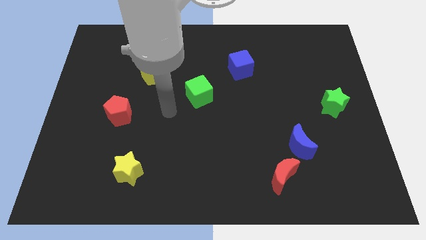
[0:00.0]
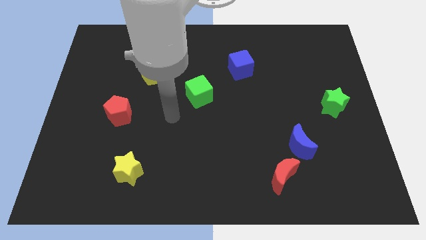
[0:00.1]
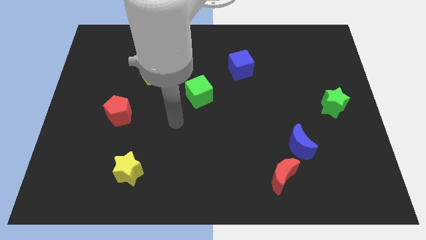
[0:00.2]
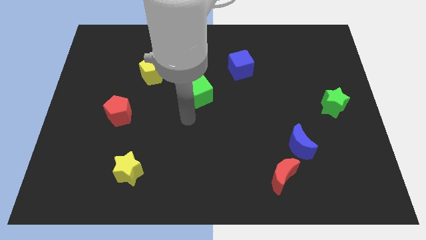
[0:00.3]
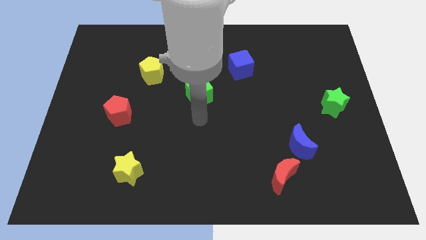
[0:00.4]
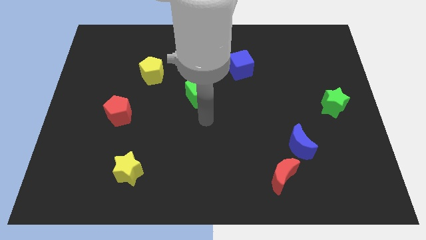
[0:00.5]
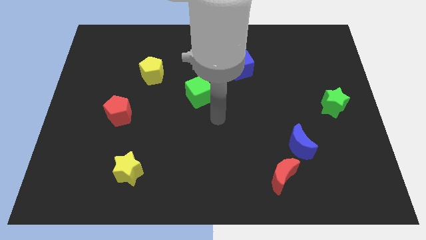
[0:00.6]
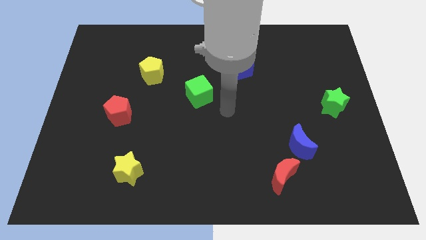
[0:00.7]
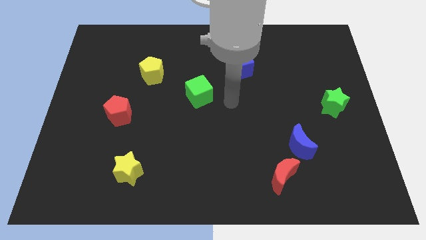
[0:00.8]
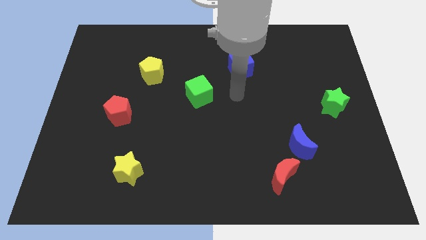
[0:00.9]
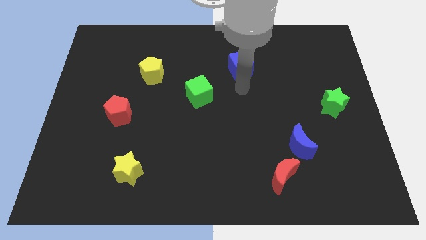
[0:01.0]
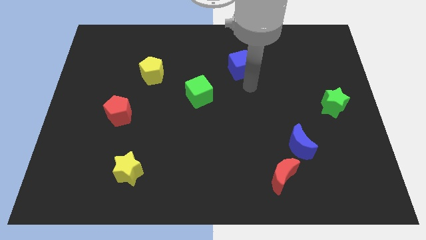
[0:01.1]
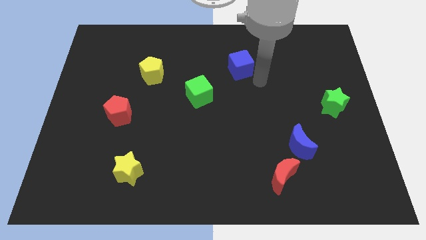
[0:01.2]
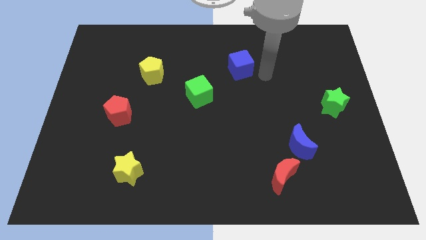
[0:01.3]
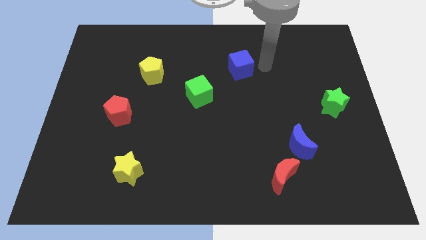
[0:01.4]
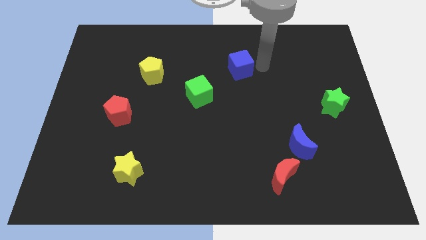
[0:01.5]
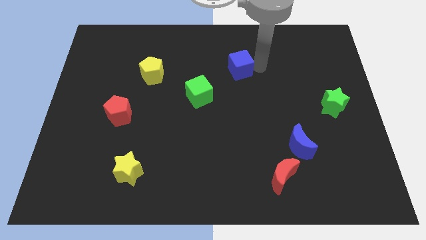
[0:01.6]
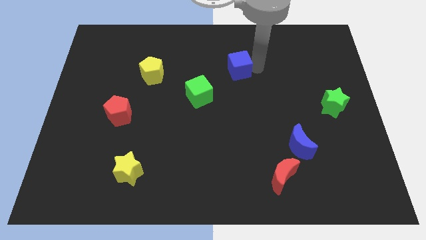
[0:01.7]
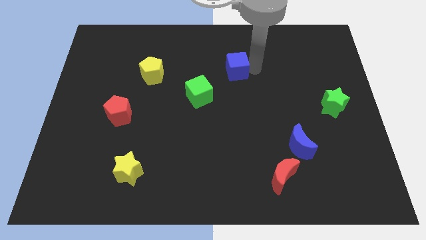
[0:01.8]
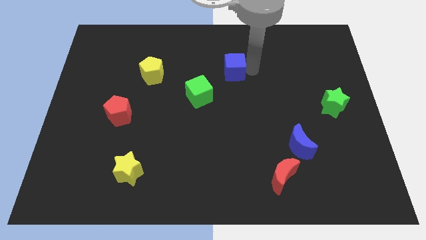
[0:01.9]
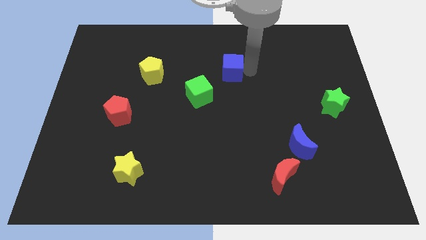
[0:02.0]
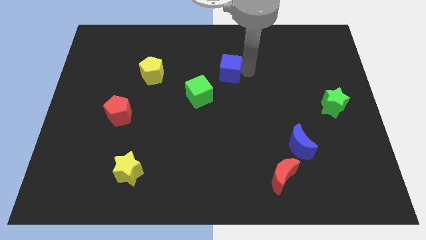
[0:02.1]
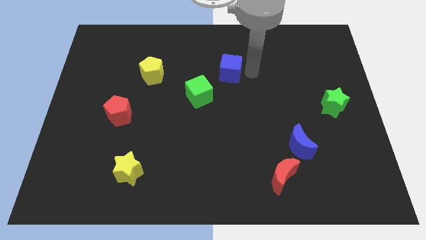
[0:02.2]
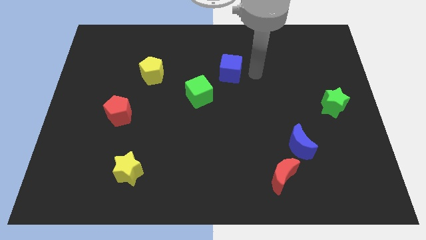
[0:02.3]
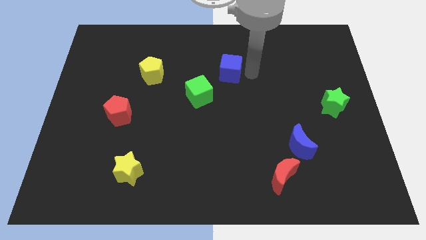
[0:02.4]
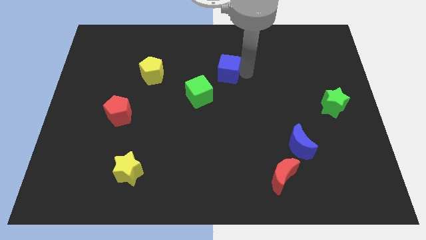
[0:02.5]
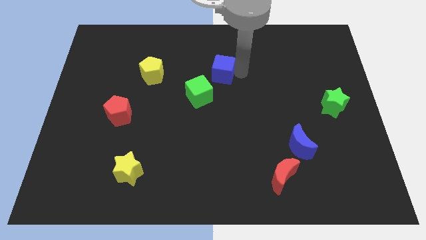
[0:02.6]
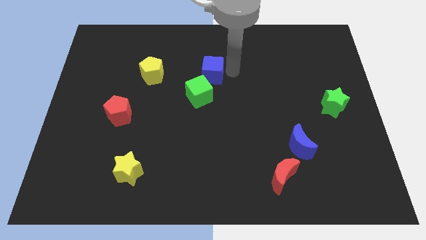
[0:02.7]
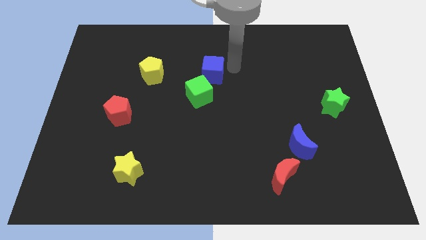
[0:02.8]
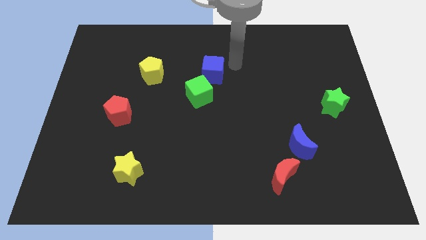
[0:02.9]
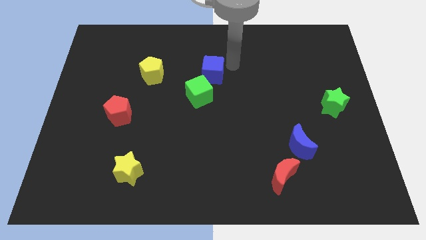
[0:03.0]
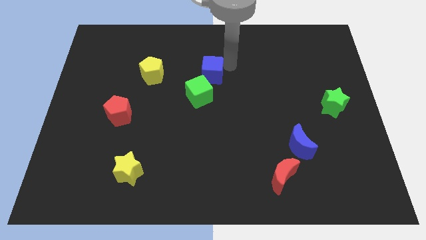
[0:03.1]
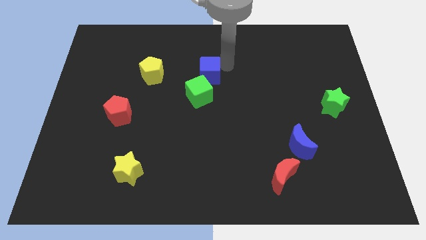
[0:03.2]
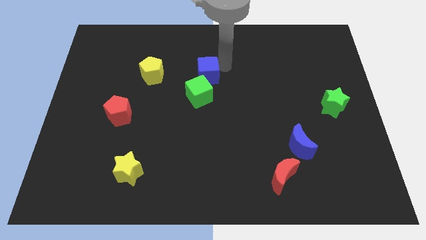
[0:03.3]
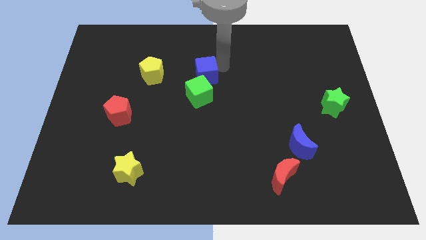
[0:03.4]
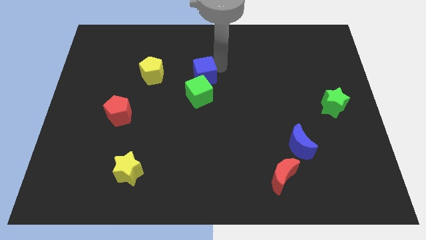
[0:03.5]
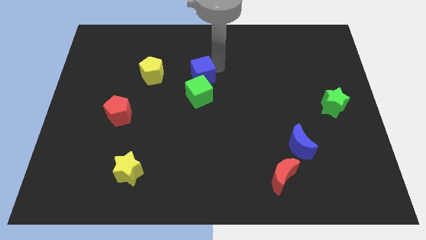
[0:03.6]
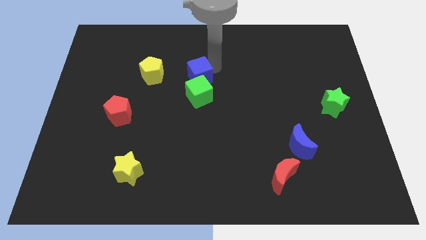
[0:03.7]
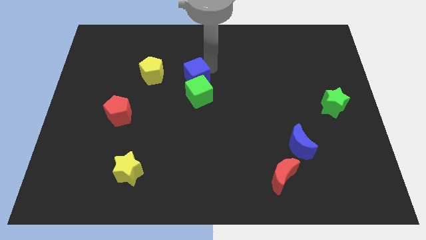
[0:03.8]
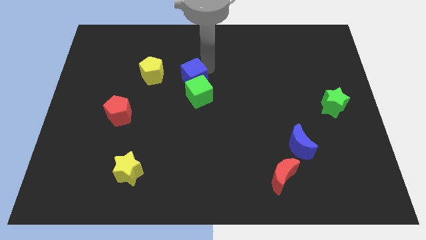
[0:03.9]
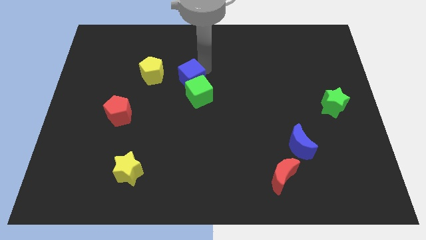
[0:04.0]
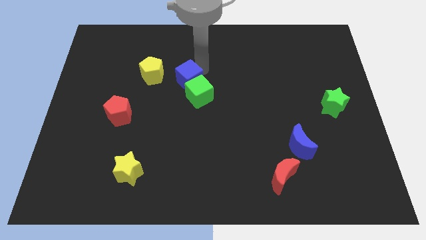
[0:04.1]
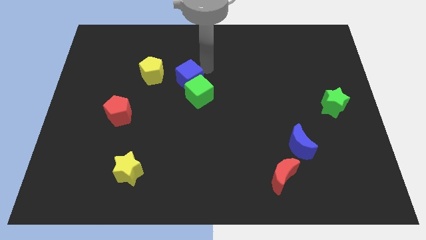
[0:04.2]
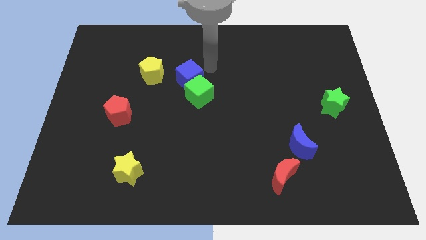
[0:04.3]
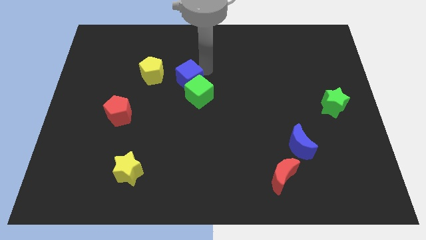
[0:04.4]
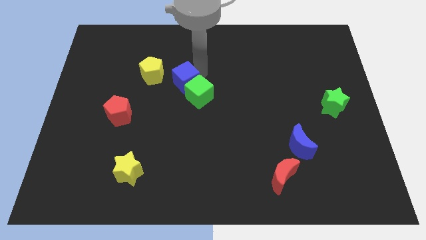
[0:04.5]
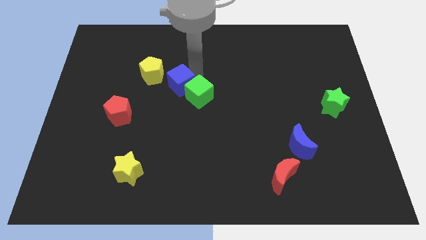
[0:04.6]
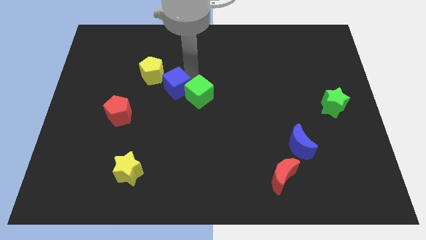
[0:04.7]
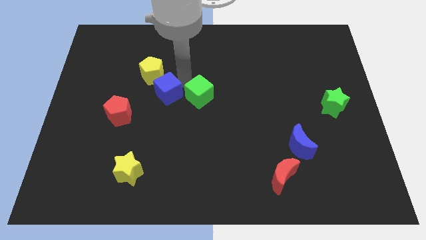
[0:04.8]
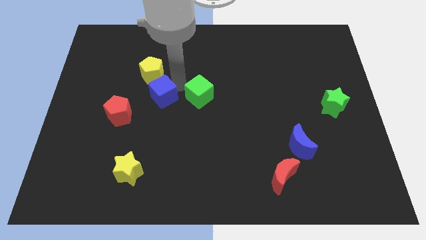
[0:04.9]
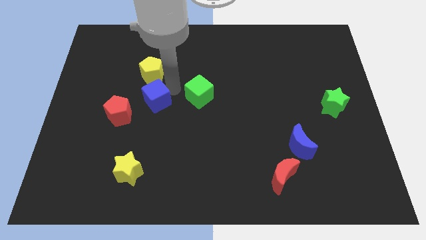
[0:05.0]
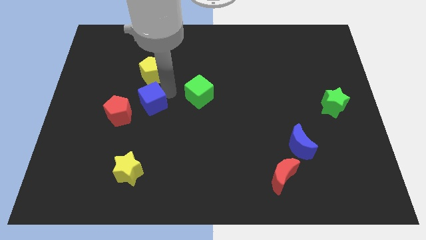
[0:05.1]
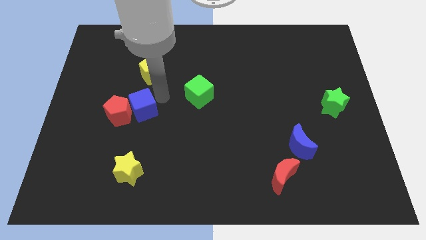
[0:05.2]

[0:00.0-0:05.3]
put the blue cube next to the red pentagon

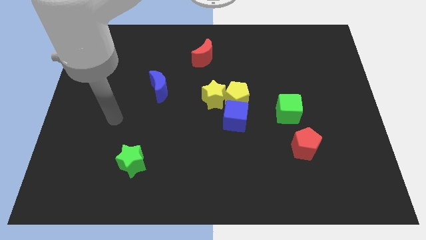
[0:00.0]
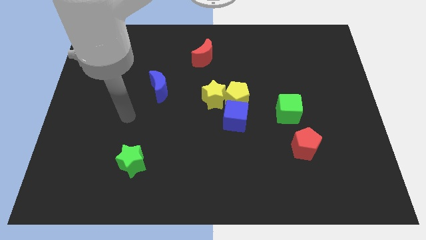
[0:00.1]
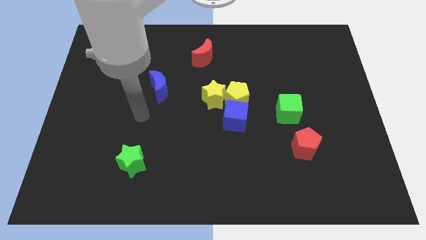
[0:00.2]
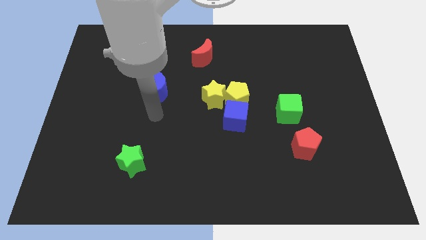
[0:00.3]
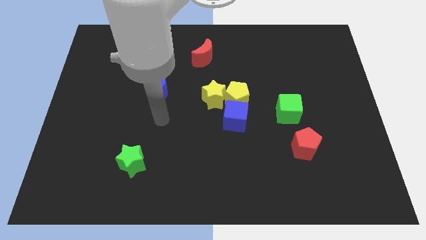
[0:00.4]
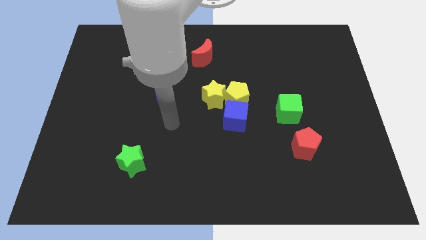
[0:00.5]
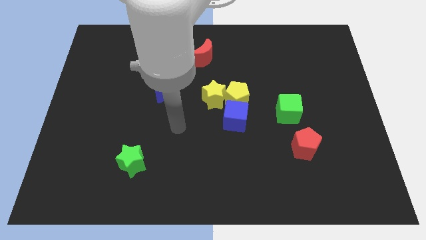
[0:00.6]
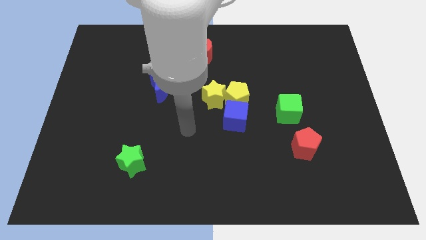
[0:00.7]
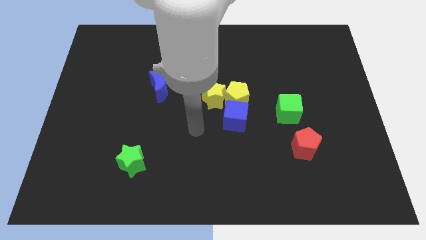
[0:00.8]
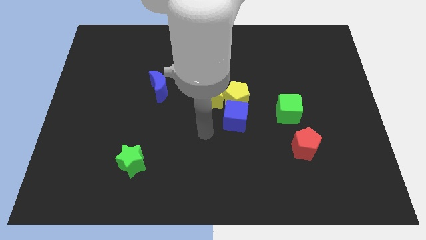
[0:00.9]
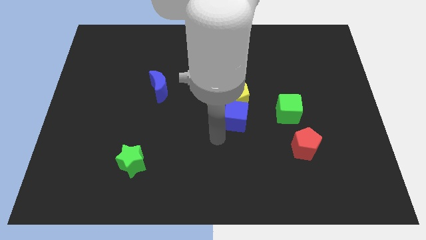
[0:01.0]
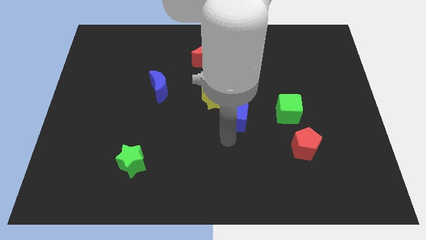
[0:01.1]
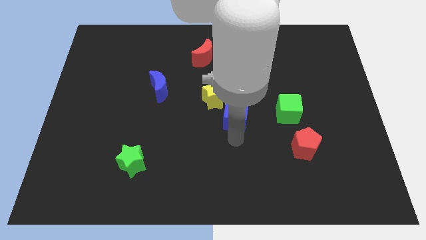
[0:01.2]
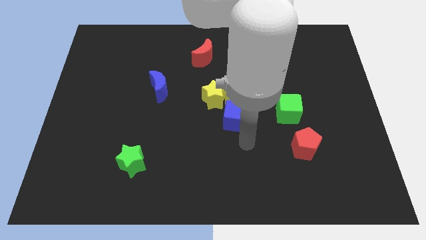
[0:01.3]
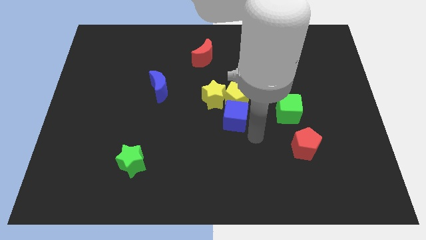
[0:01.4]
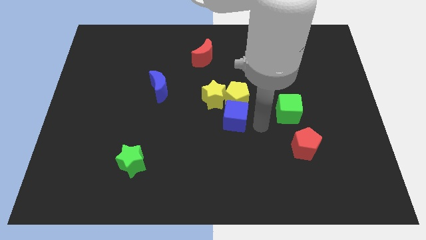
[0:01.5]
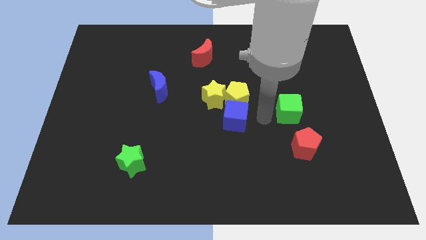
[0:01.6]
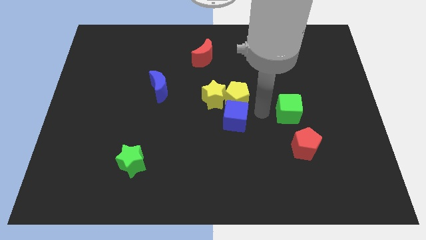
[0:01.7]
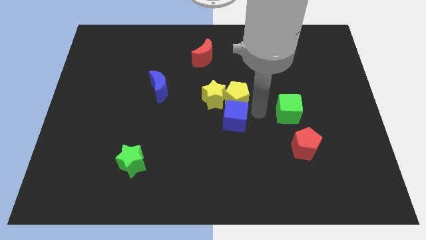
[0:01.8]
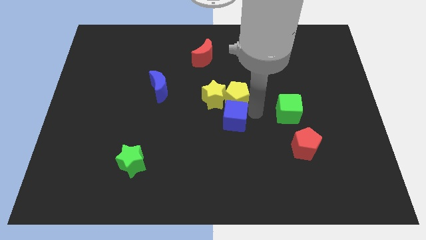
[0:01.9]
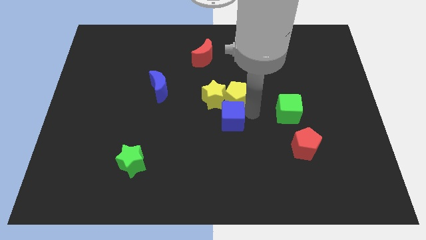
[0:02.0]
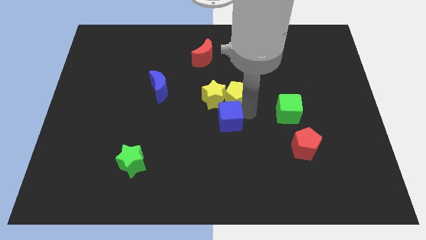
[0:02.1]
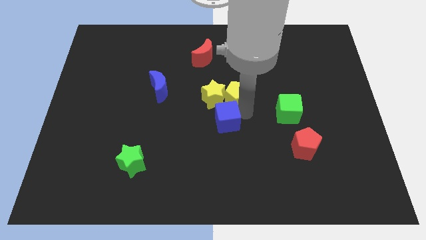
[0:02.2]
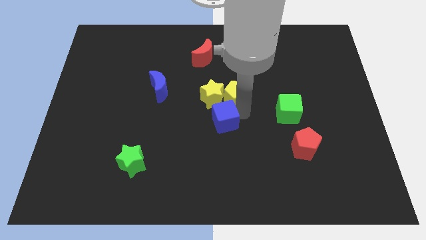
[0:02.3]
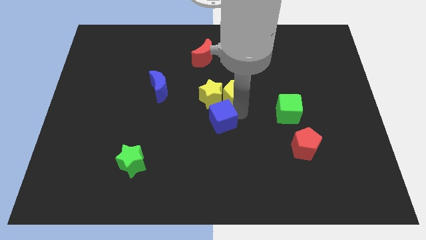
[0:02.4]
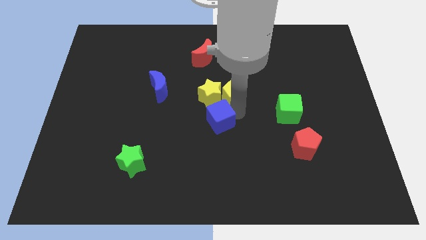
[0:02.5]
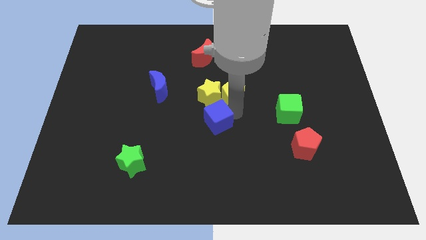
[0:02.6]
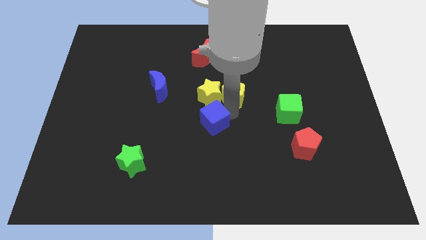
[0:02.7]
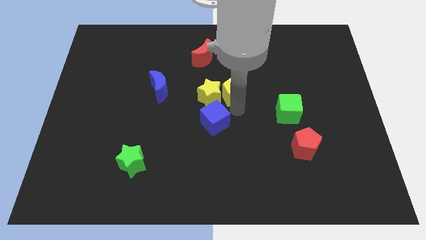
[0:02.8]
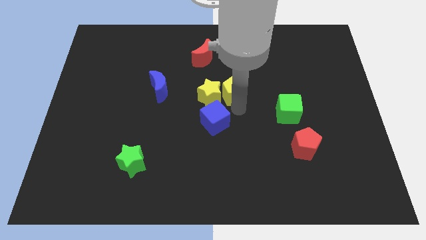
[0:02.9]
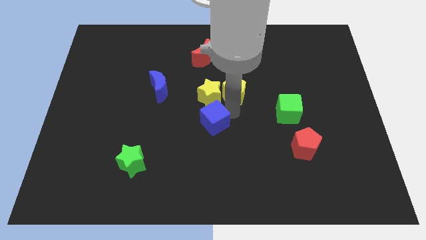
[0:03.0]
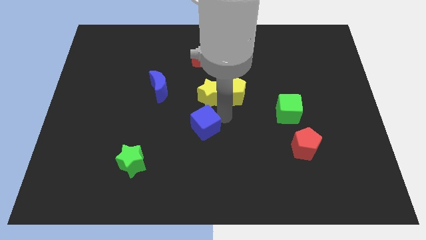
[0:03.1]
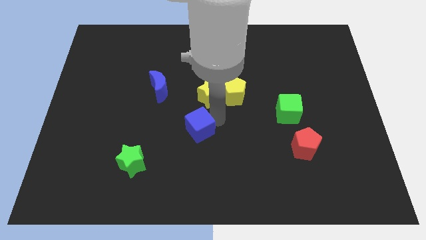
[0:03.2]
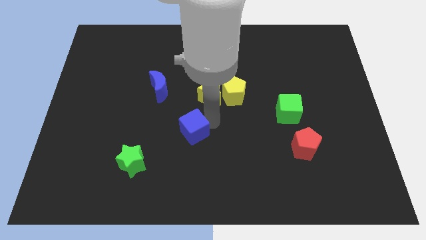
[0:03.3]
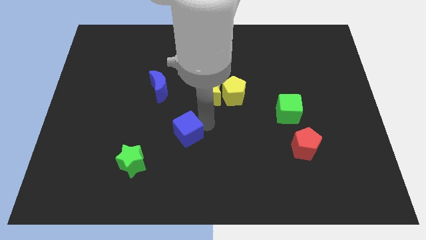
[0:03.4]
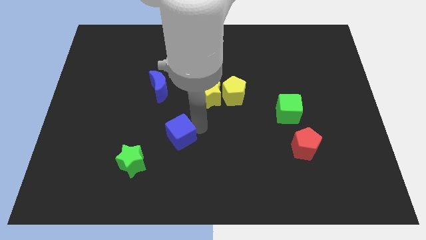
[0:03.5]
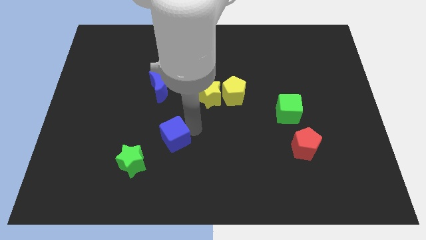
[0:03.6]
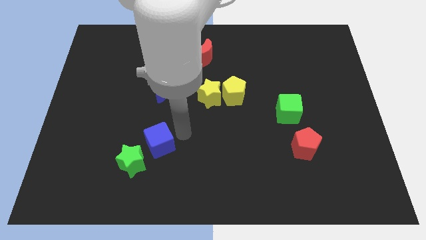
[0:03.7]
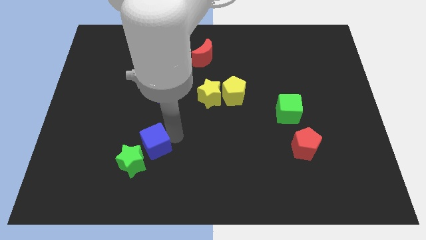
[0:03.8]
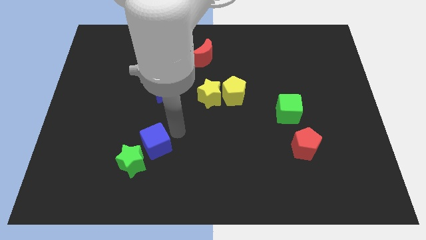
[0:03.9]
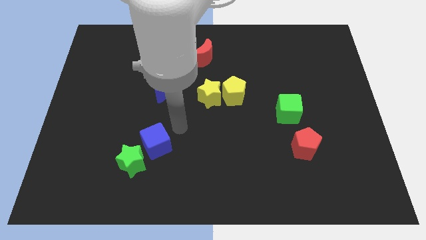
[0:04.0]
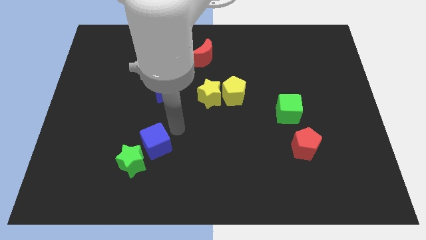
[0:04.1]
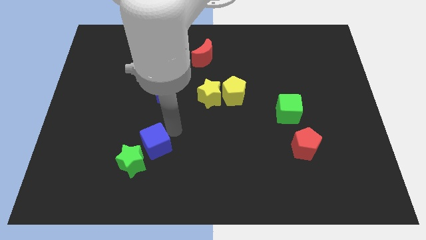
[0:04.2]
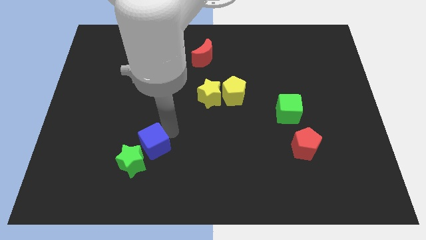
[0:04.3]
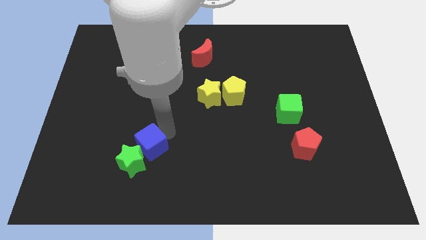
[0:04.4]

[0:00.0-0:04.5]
push the blue cube close to the green star
